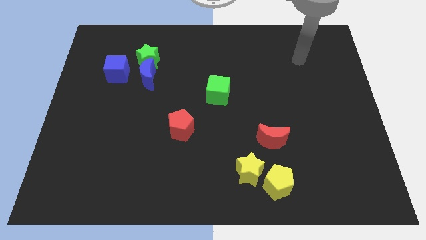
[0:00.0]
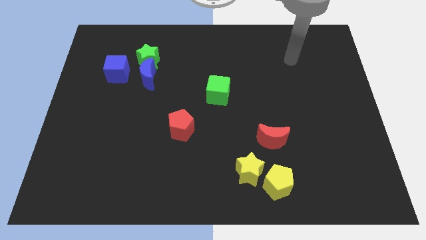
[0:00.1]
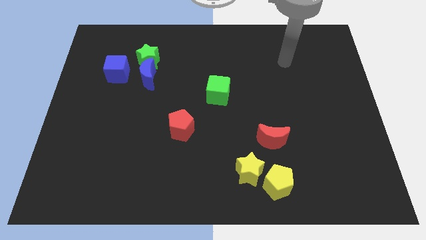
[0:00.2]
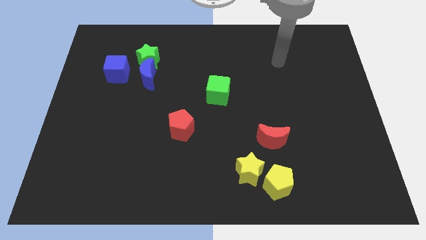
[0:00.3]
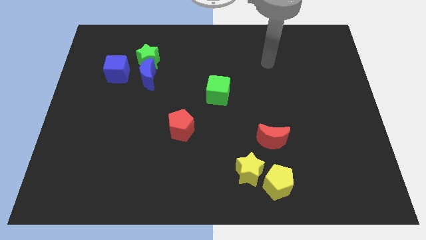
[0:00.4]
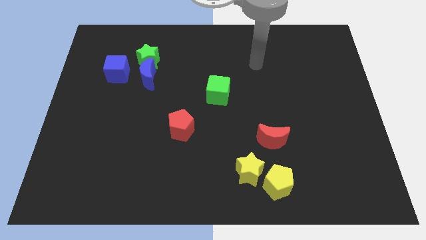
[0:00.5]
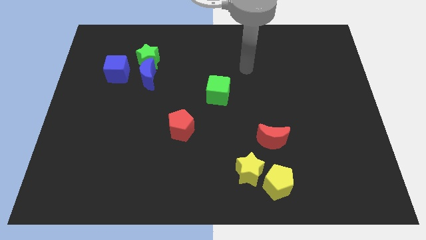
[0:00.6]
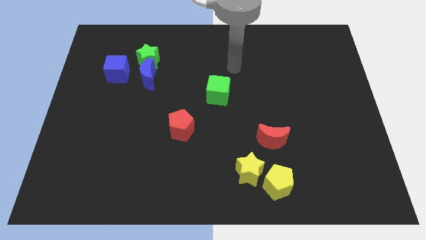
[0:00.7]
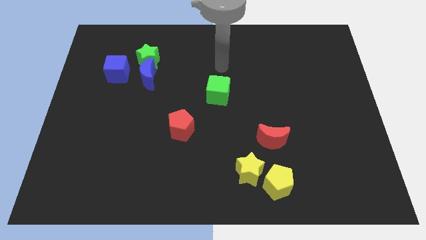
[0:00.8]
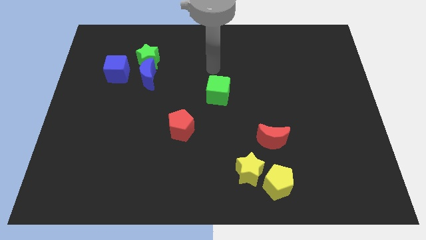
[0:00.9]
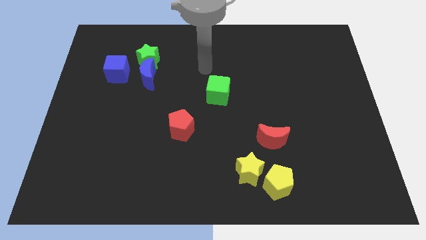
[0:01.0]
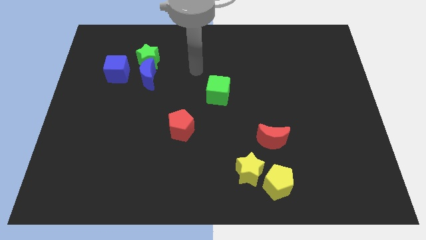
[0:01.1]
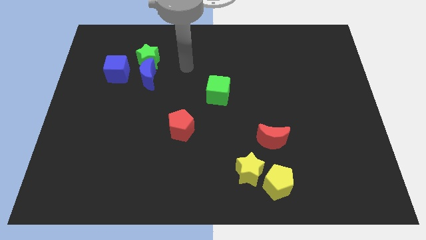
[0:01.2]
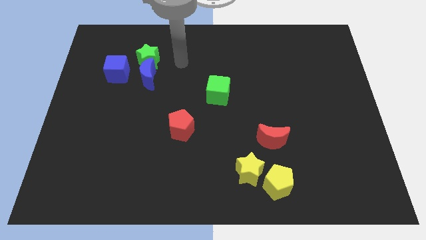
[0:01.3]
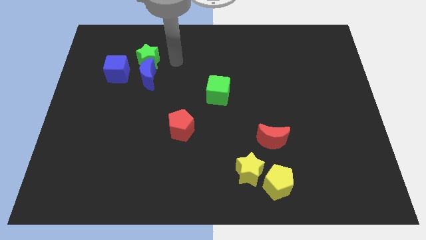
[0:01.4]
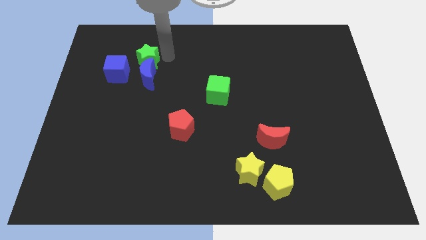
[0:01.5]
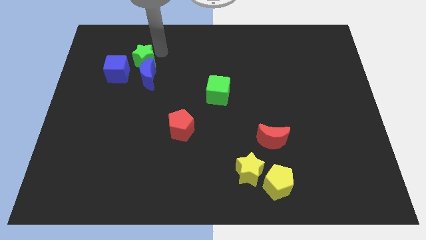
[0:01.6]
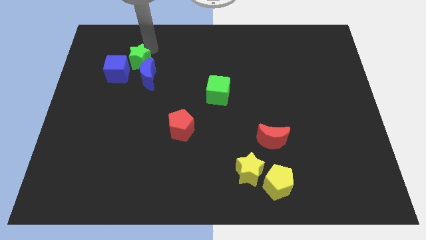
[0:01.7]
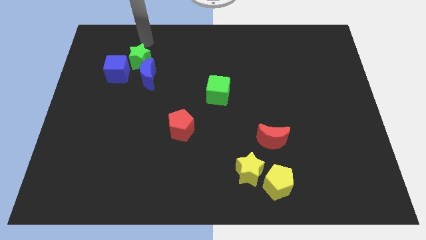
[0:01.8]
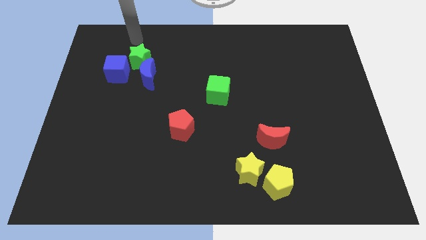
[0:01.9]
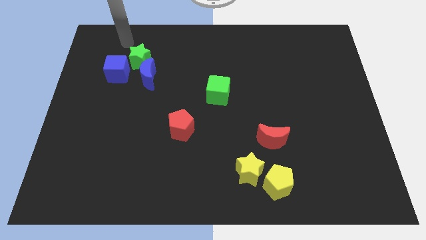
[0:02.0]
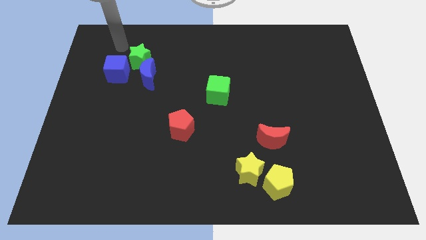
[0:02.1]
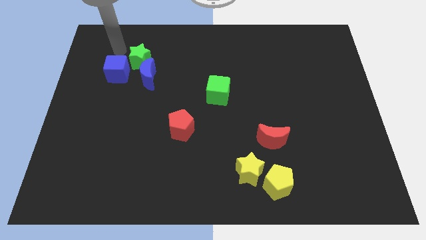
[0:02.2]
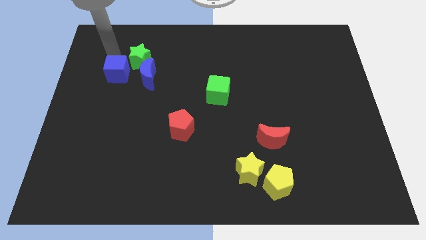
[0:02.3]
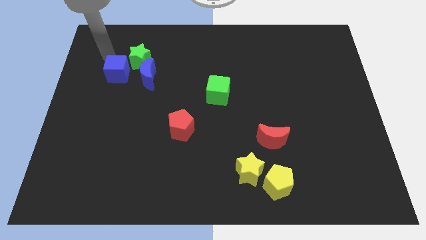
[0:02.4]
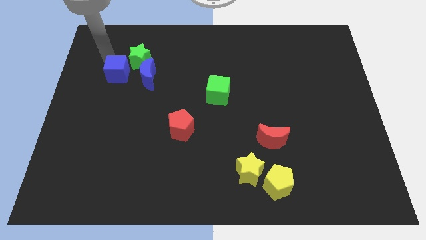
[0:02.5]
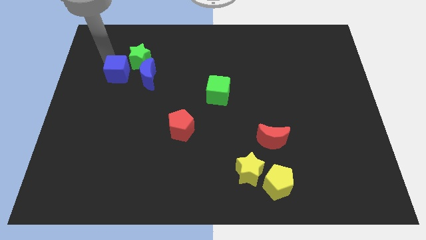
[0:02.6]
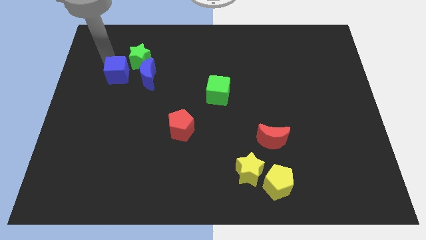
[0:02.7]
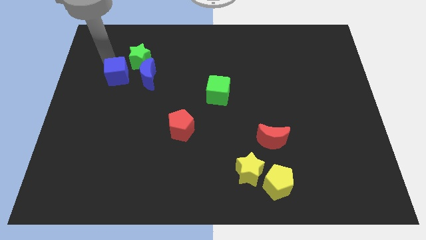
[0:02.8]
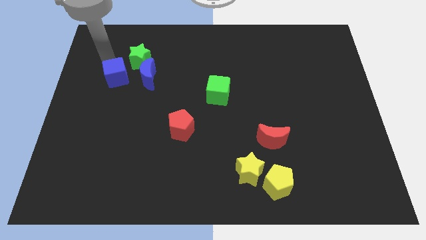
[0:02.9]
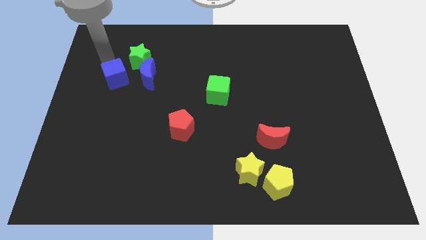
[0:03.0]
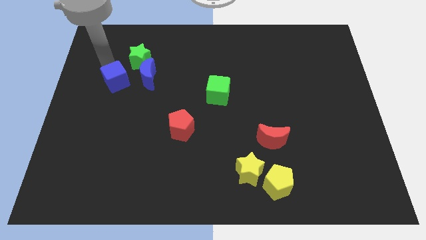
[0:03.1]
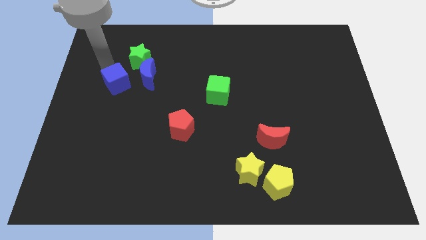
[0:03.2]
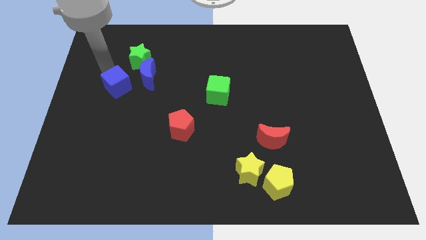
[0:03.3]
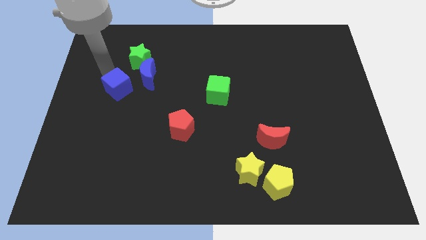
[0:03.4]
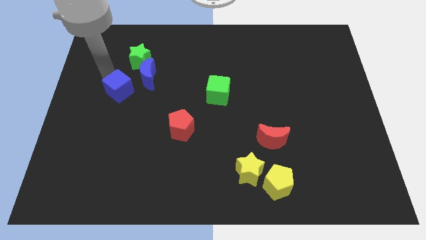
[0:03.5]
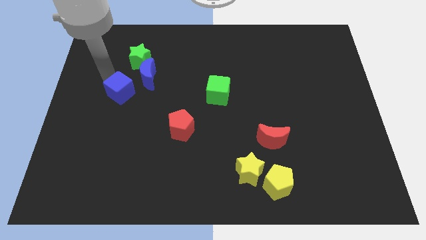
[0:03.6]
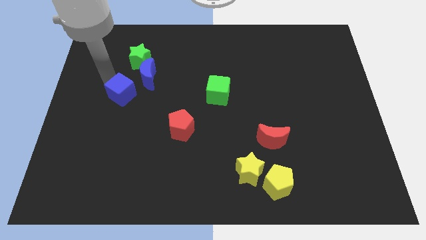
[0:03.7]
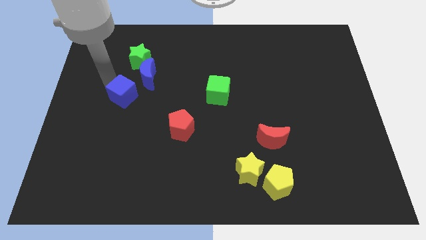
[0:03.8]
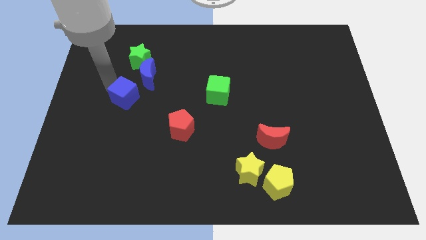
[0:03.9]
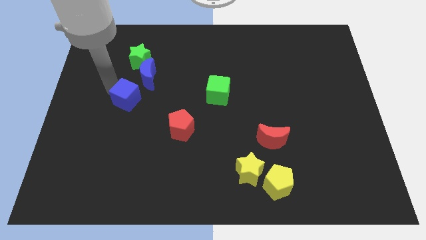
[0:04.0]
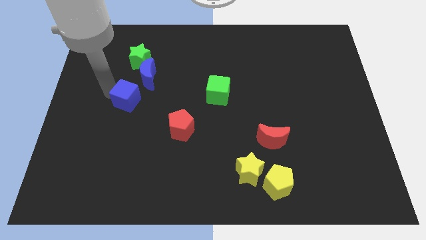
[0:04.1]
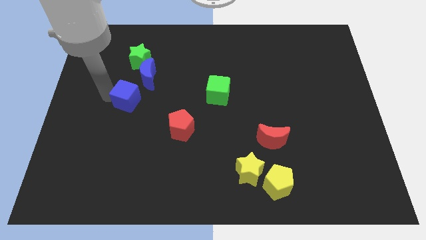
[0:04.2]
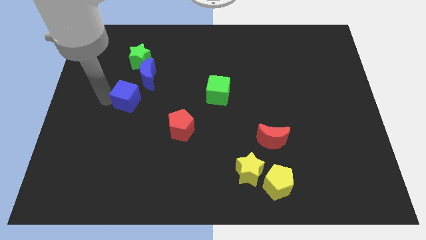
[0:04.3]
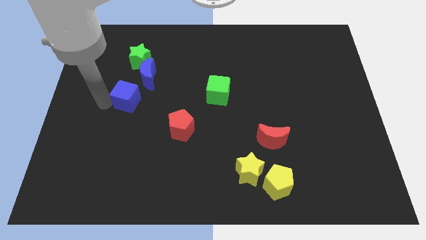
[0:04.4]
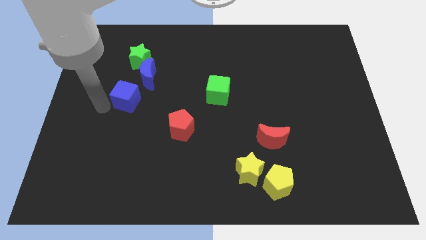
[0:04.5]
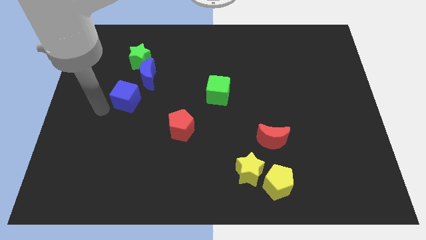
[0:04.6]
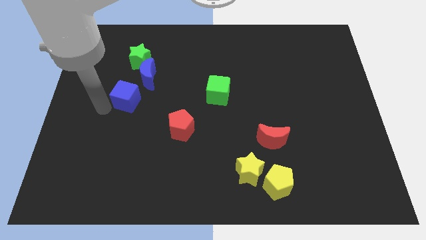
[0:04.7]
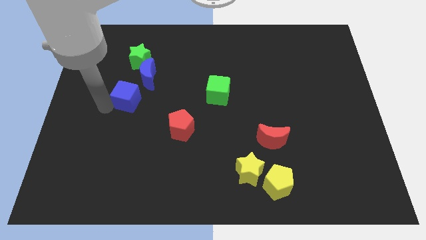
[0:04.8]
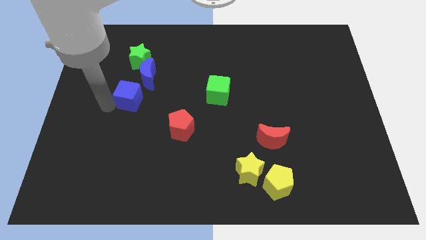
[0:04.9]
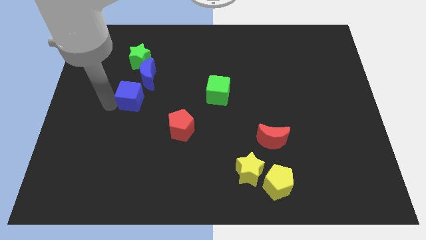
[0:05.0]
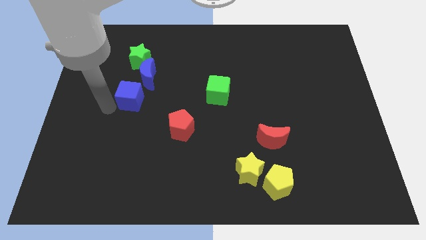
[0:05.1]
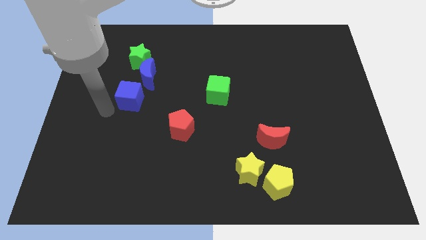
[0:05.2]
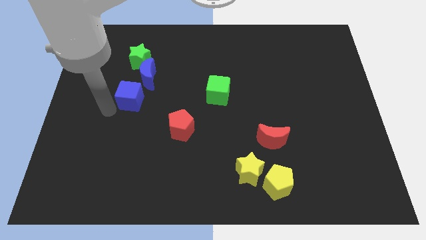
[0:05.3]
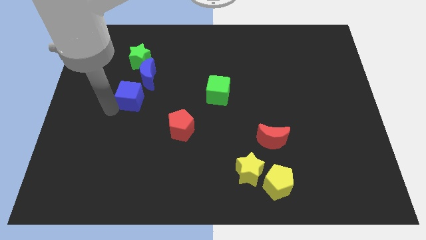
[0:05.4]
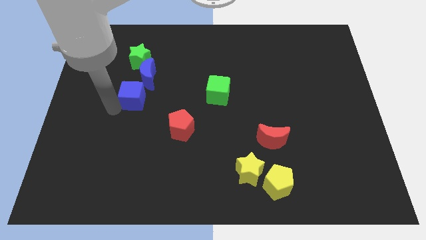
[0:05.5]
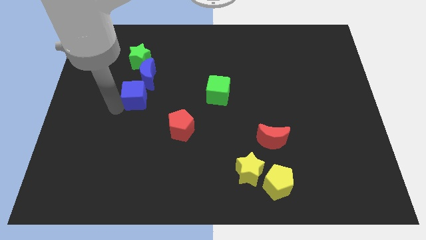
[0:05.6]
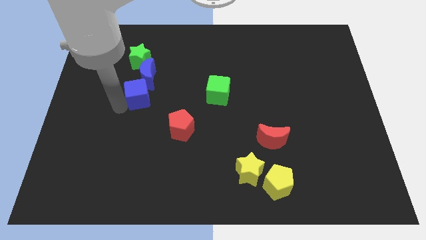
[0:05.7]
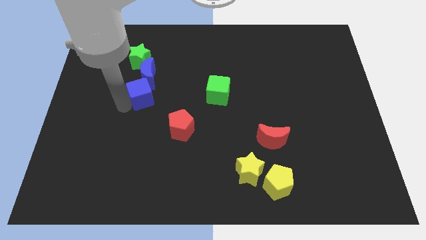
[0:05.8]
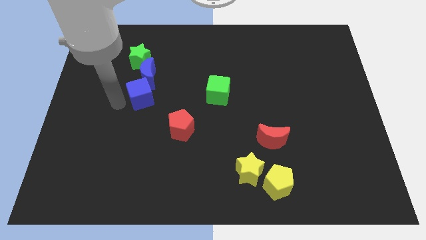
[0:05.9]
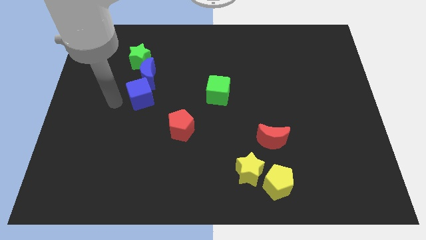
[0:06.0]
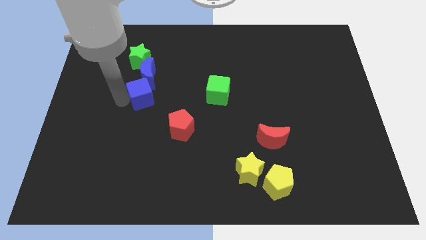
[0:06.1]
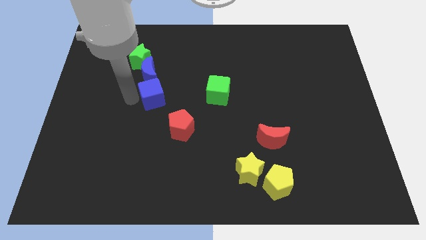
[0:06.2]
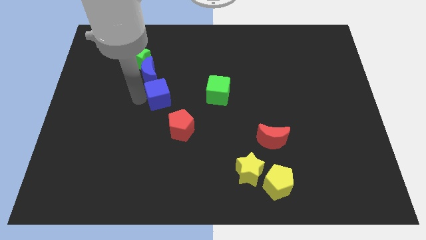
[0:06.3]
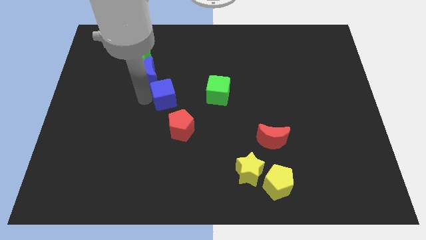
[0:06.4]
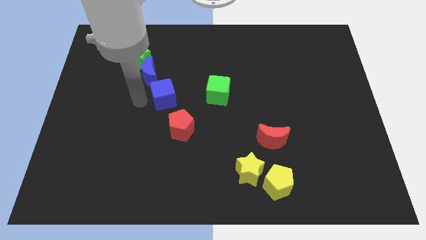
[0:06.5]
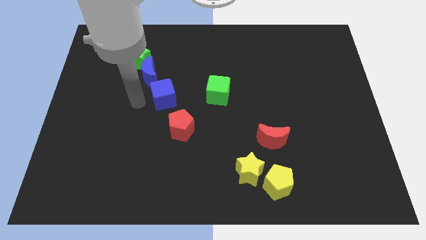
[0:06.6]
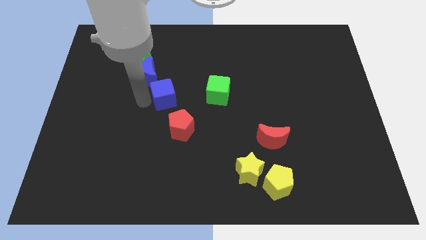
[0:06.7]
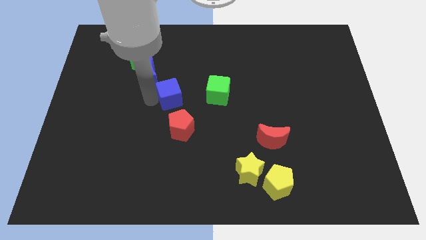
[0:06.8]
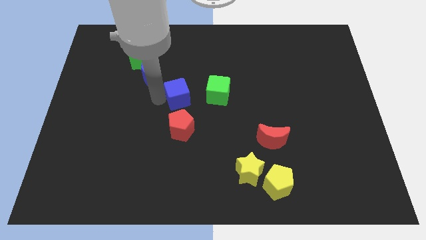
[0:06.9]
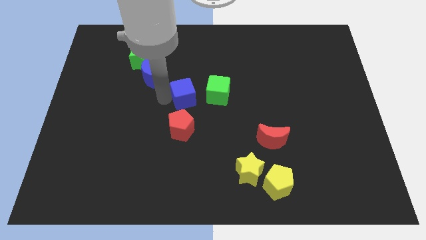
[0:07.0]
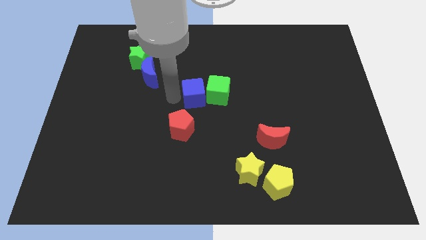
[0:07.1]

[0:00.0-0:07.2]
slide the blue cube to the green cube
